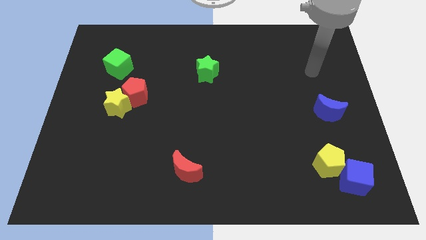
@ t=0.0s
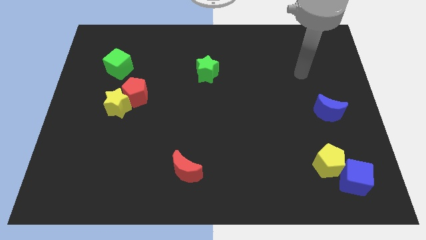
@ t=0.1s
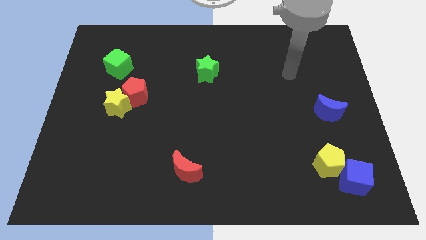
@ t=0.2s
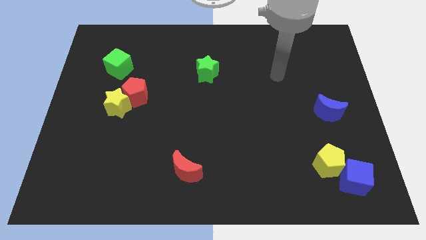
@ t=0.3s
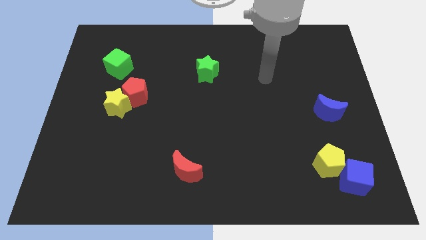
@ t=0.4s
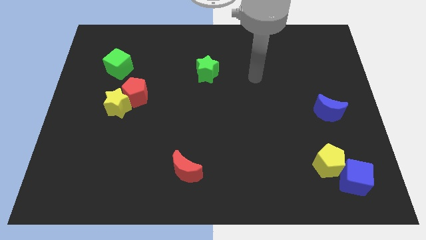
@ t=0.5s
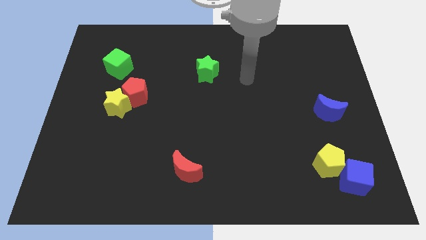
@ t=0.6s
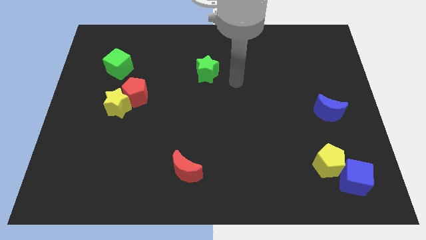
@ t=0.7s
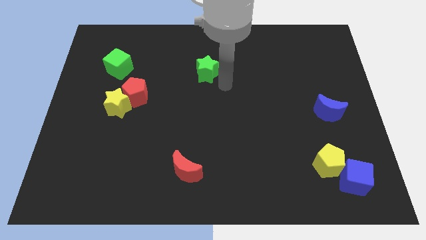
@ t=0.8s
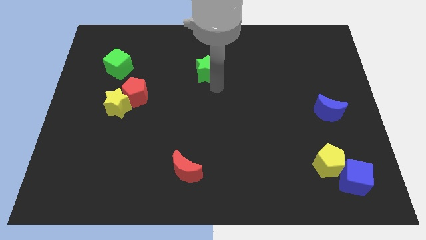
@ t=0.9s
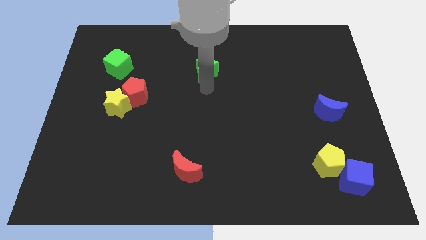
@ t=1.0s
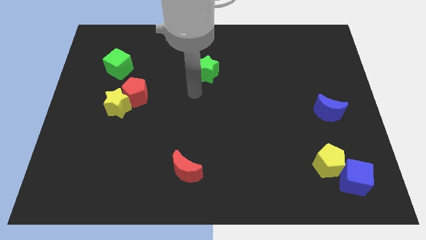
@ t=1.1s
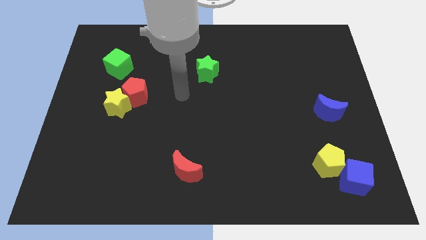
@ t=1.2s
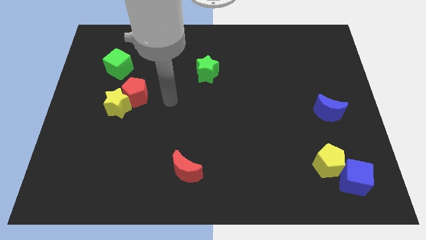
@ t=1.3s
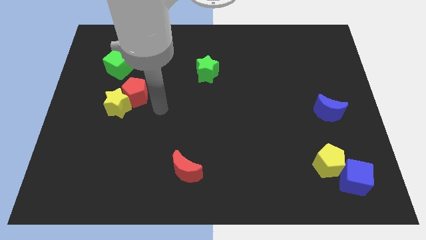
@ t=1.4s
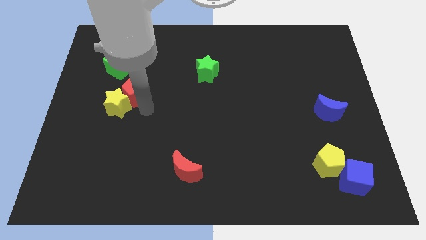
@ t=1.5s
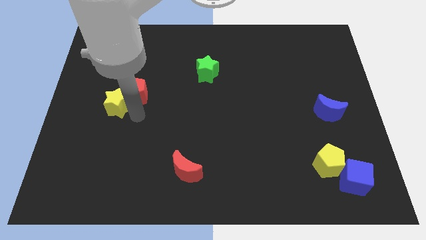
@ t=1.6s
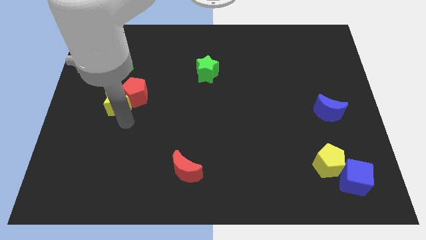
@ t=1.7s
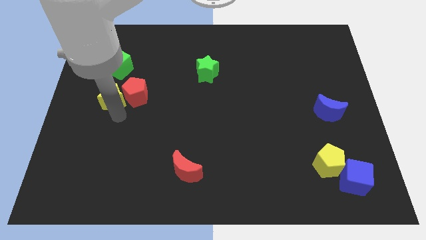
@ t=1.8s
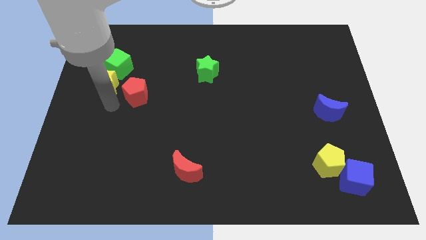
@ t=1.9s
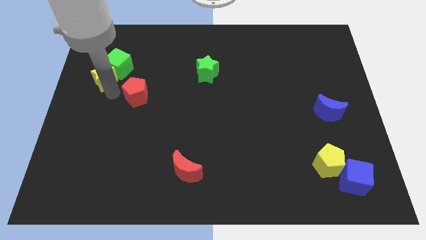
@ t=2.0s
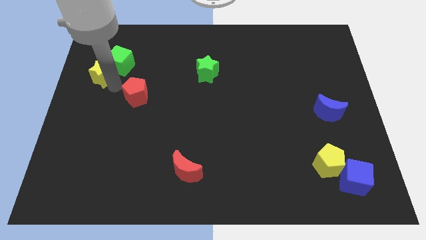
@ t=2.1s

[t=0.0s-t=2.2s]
separate the red pentagon from the yellow star

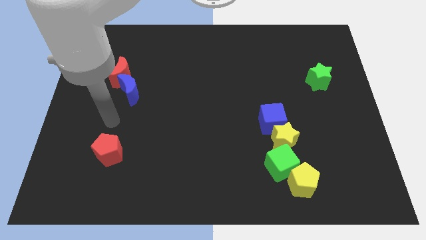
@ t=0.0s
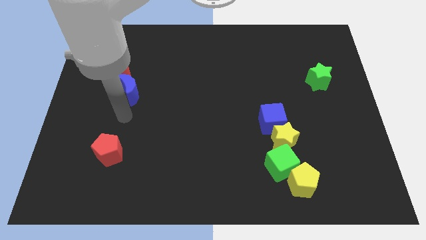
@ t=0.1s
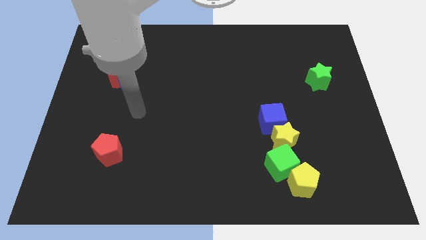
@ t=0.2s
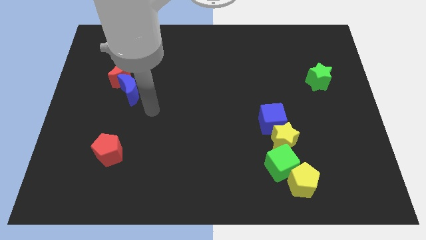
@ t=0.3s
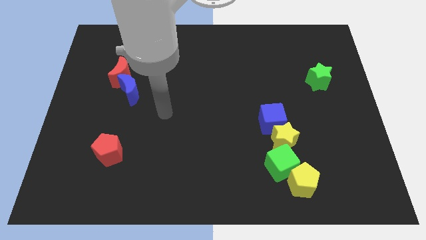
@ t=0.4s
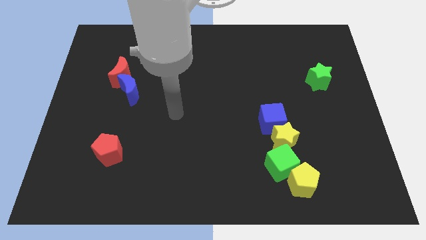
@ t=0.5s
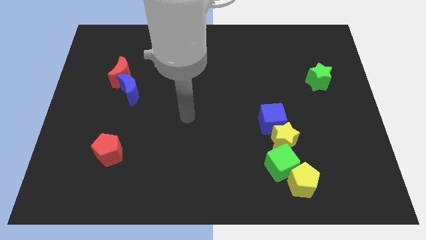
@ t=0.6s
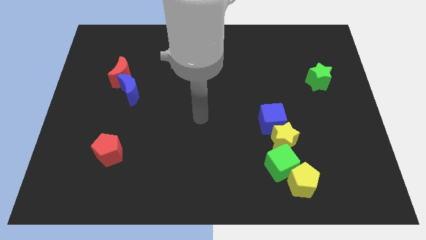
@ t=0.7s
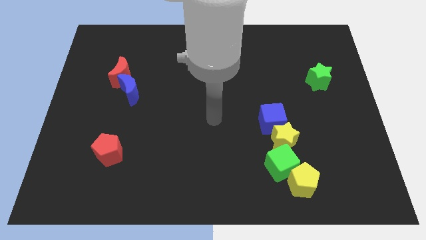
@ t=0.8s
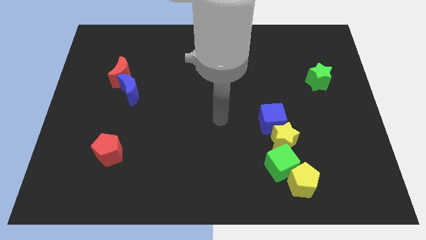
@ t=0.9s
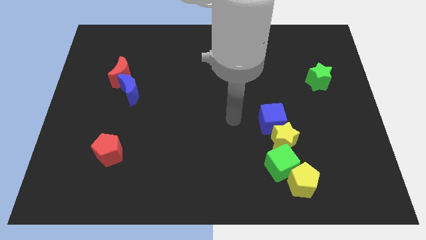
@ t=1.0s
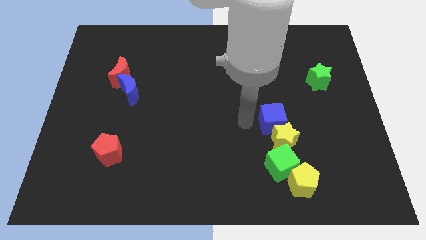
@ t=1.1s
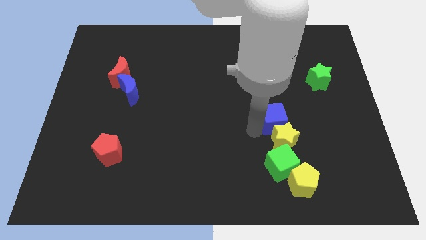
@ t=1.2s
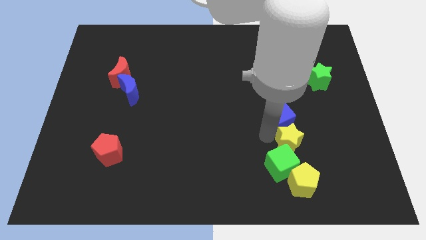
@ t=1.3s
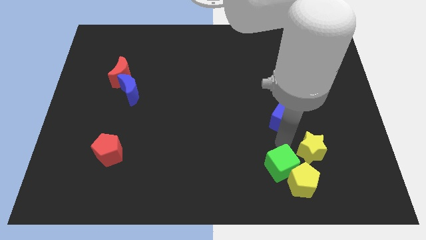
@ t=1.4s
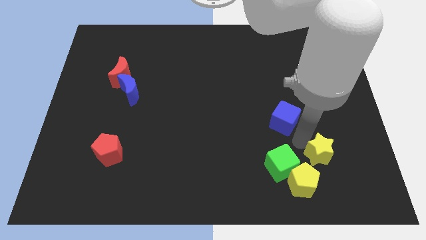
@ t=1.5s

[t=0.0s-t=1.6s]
move the blue cube away from the yellow star
